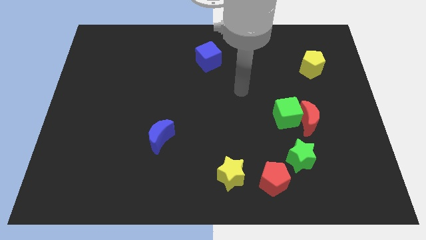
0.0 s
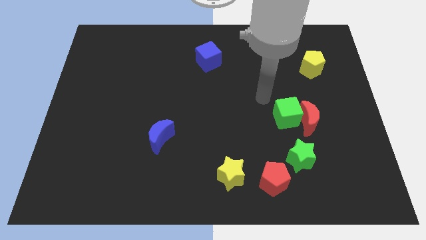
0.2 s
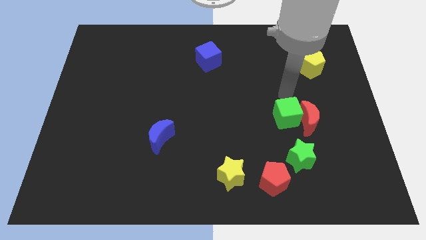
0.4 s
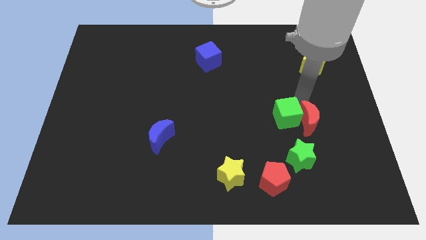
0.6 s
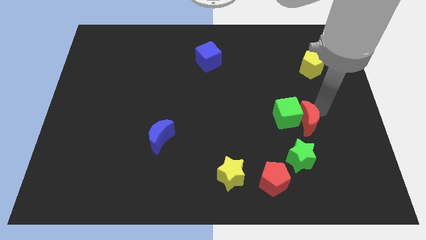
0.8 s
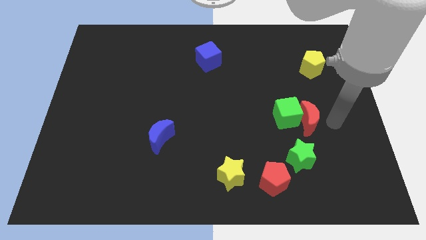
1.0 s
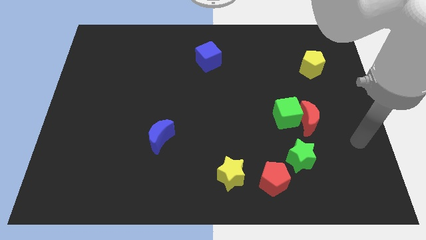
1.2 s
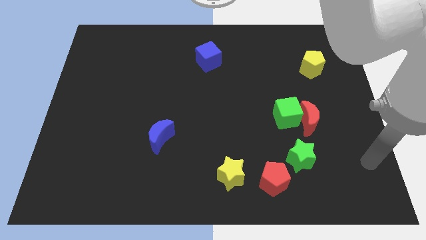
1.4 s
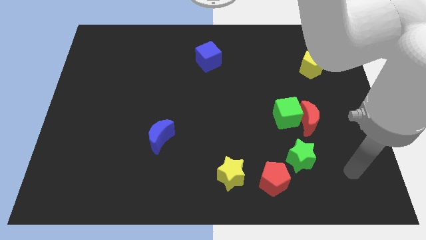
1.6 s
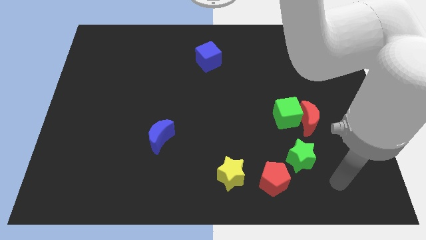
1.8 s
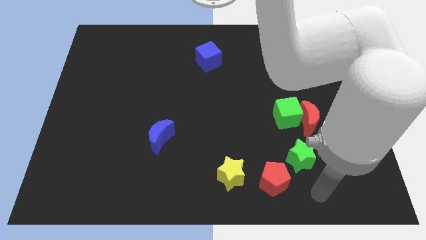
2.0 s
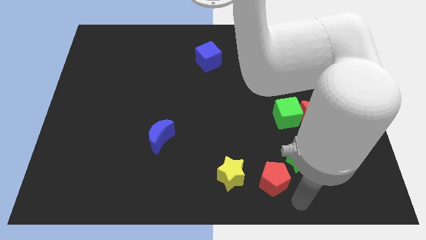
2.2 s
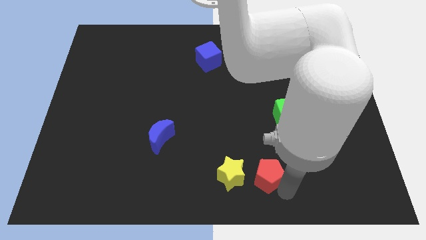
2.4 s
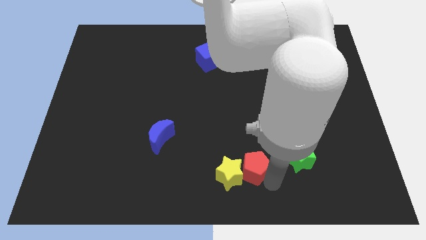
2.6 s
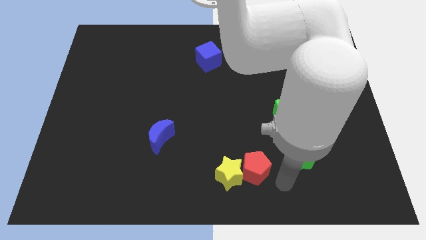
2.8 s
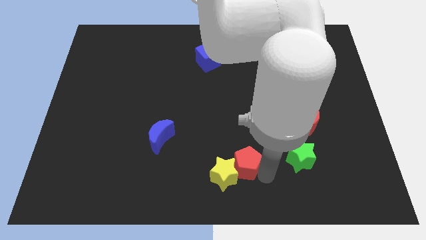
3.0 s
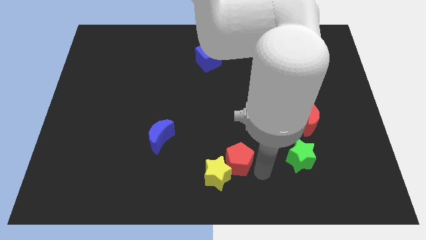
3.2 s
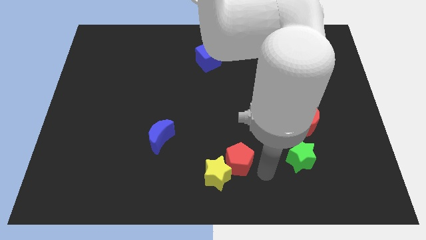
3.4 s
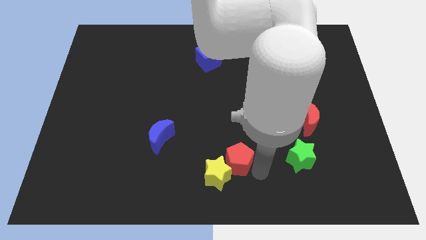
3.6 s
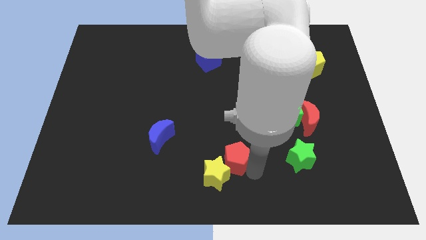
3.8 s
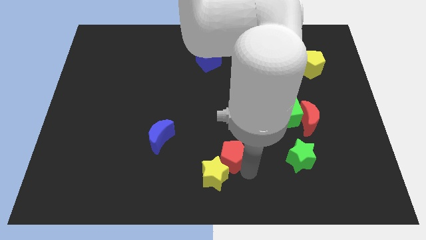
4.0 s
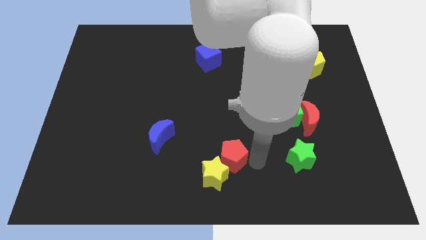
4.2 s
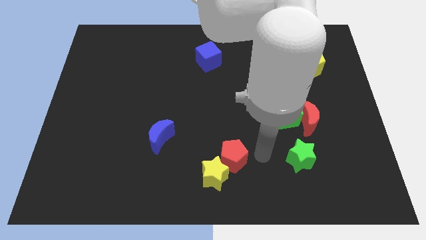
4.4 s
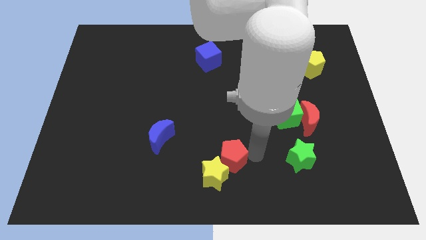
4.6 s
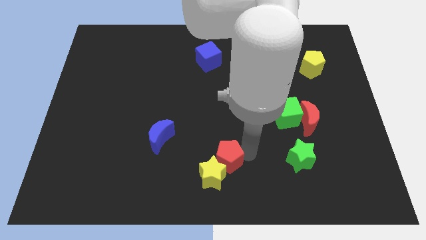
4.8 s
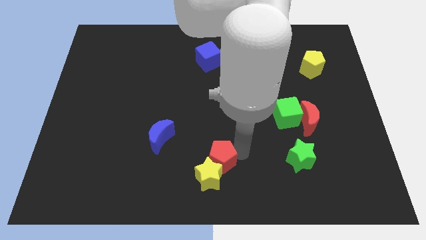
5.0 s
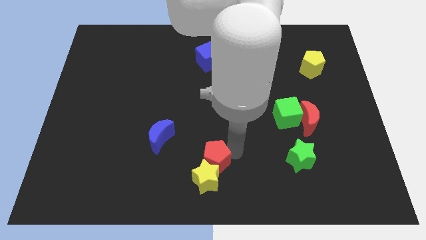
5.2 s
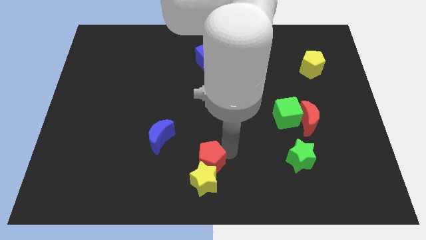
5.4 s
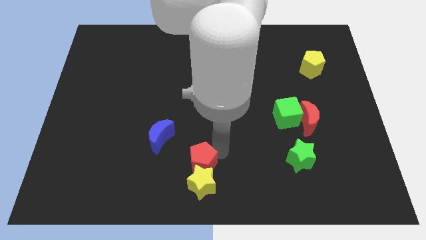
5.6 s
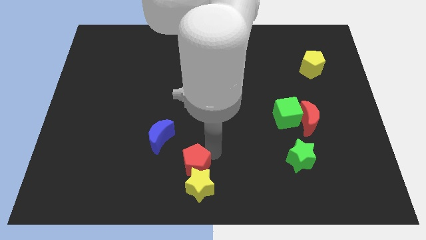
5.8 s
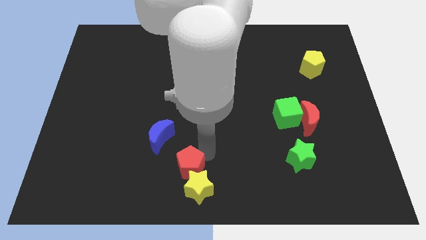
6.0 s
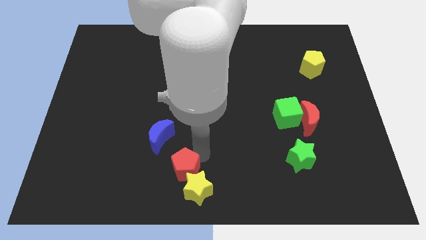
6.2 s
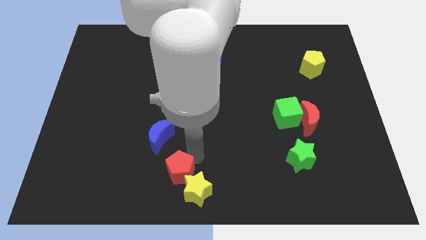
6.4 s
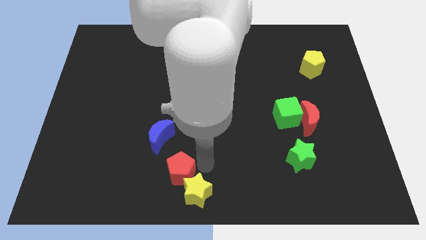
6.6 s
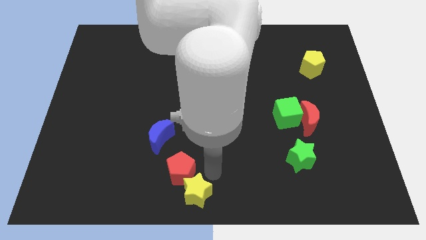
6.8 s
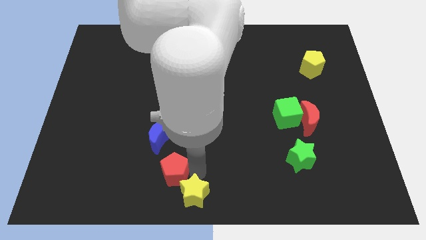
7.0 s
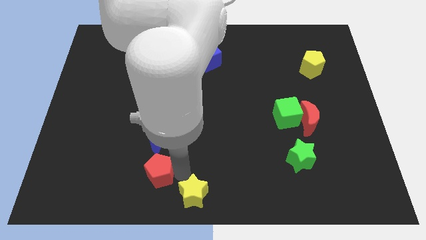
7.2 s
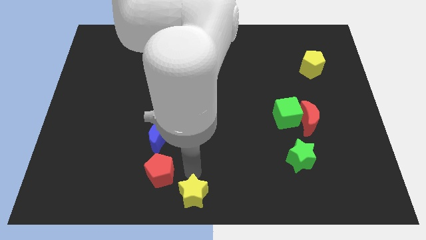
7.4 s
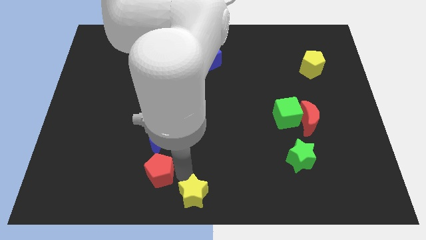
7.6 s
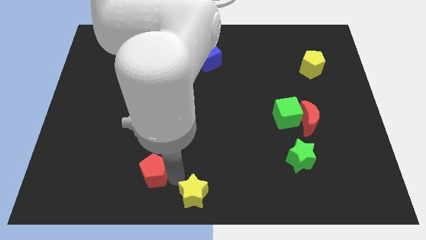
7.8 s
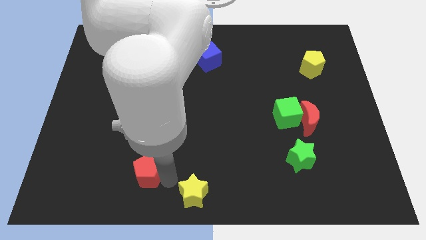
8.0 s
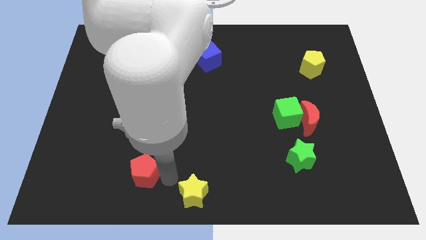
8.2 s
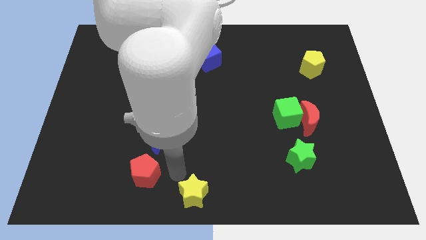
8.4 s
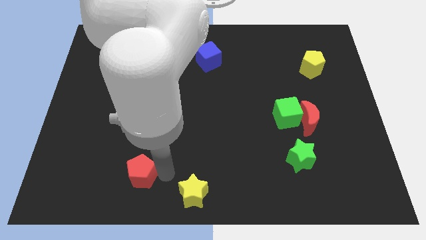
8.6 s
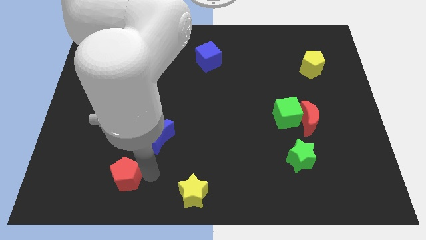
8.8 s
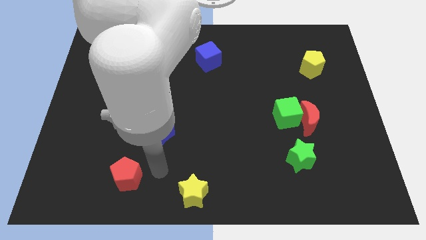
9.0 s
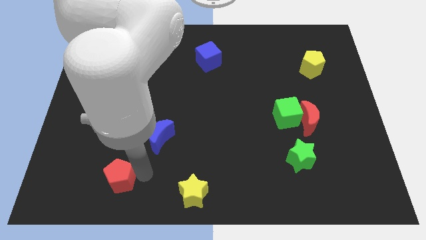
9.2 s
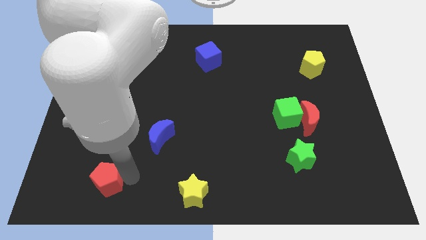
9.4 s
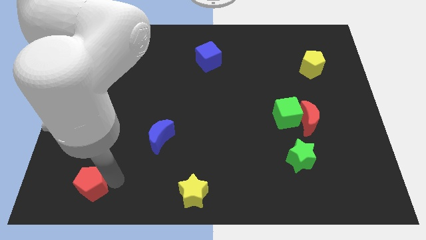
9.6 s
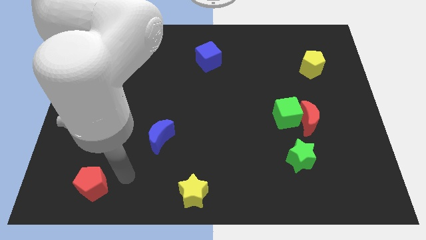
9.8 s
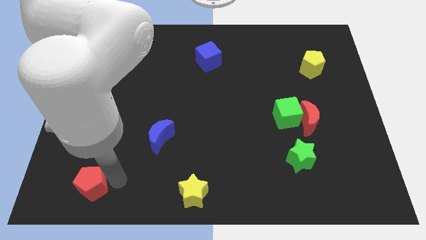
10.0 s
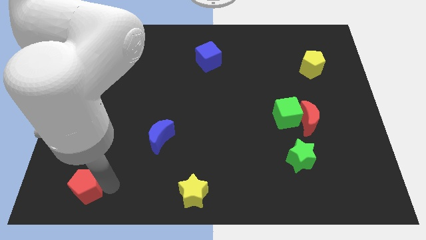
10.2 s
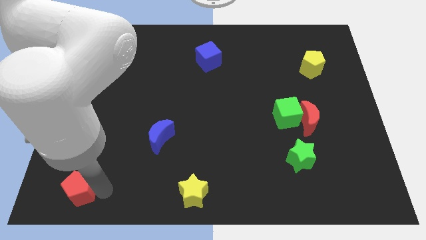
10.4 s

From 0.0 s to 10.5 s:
move the red pentagon to the bottom left corner
